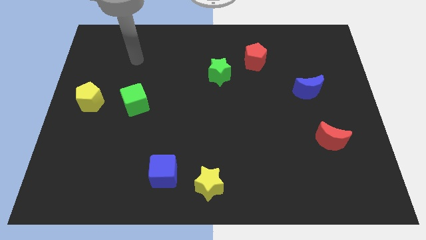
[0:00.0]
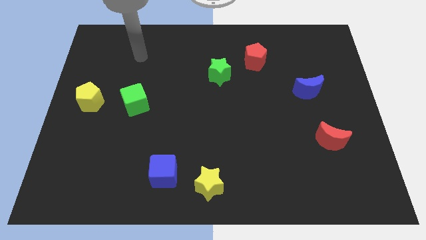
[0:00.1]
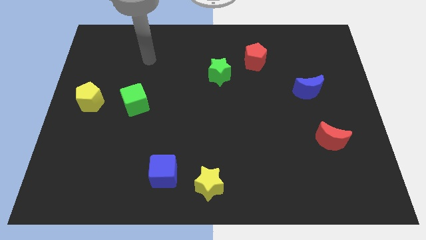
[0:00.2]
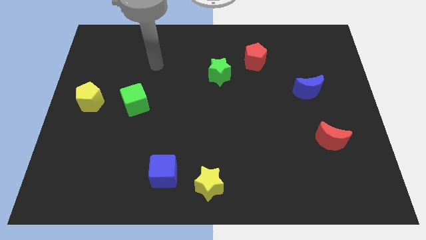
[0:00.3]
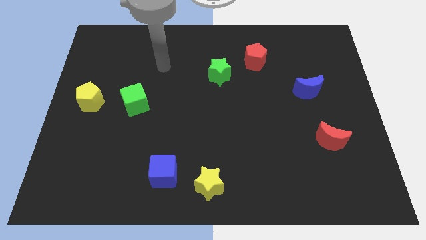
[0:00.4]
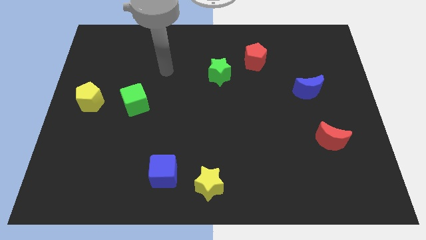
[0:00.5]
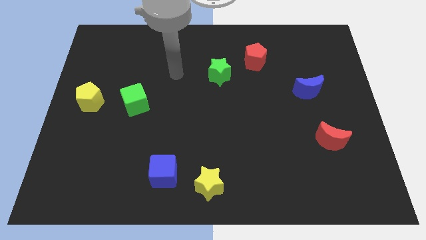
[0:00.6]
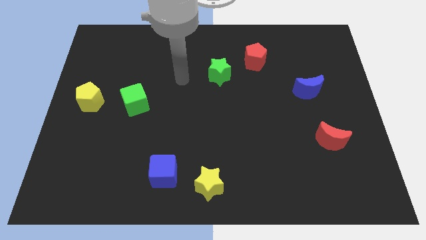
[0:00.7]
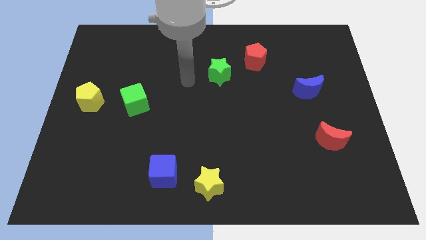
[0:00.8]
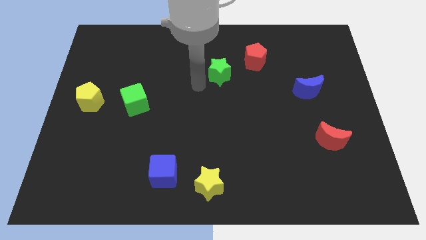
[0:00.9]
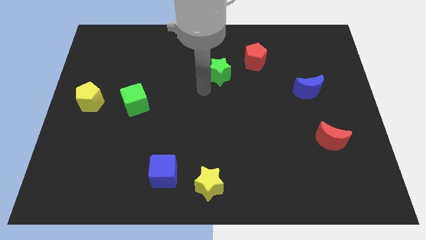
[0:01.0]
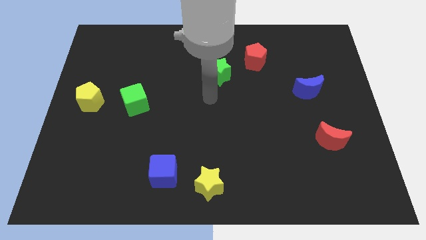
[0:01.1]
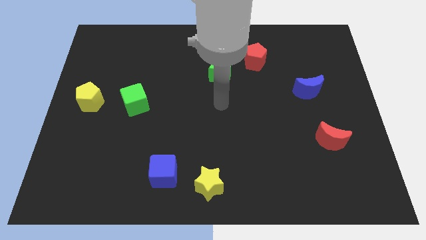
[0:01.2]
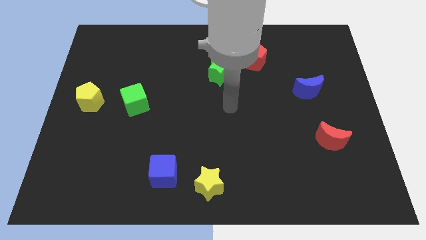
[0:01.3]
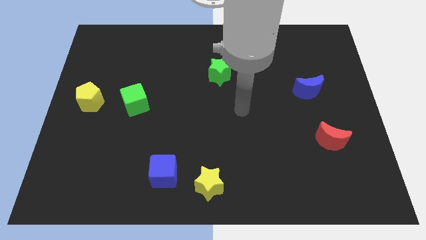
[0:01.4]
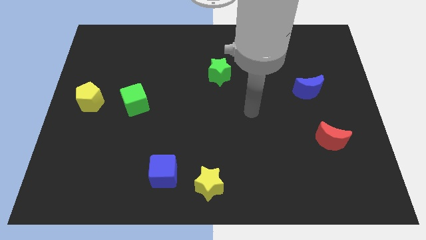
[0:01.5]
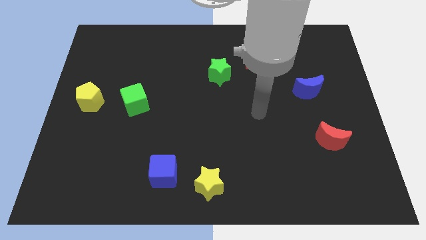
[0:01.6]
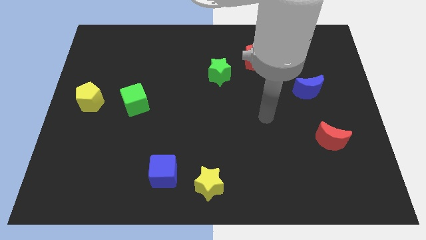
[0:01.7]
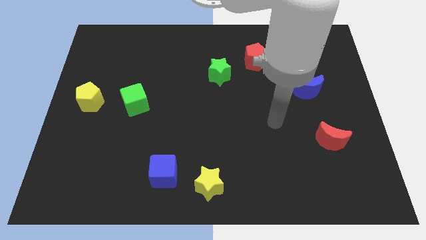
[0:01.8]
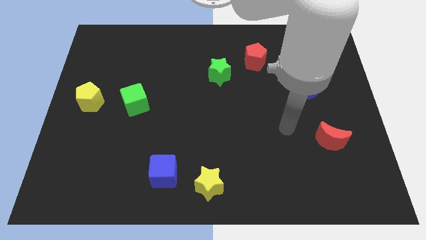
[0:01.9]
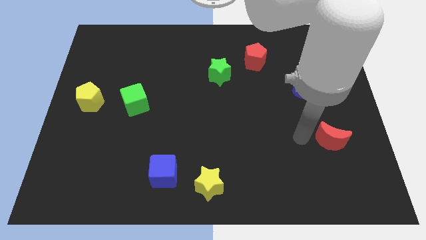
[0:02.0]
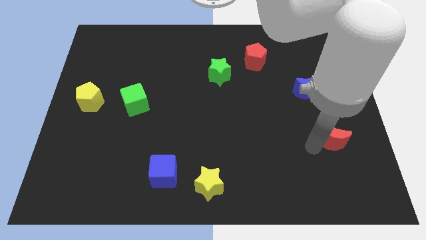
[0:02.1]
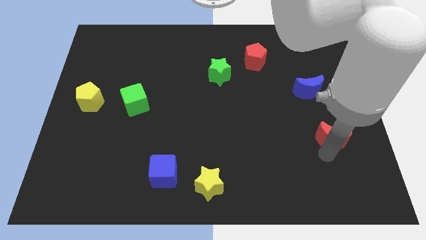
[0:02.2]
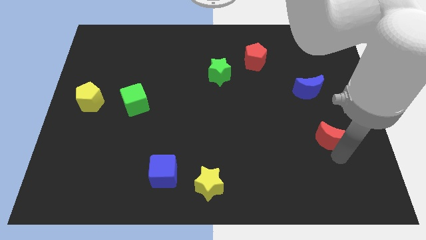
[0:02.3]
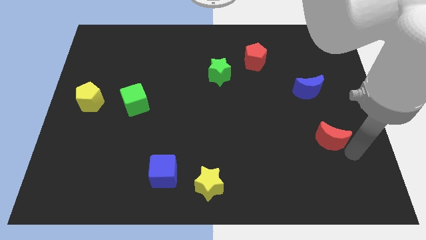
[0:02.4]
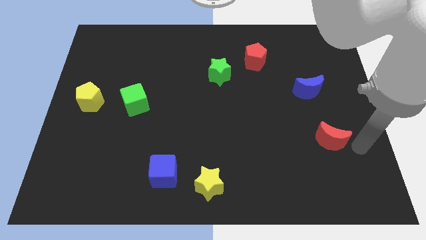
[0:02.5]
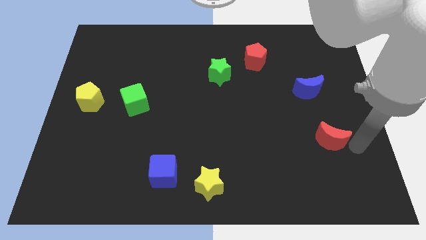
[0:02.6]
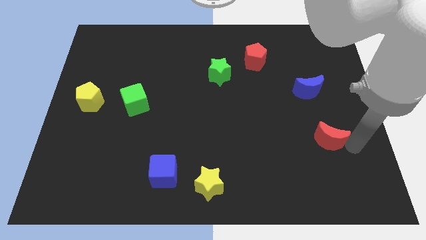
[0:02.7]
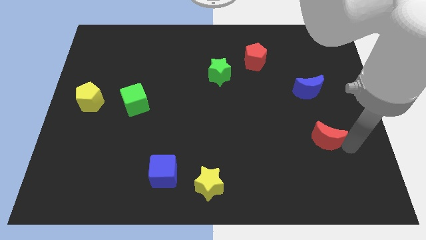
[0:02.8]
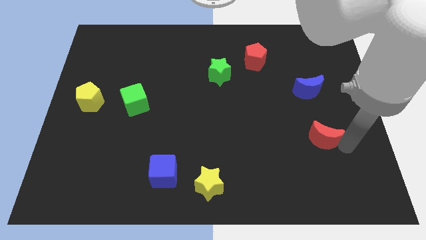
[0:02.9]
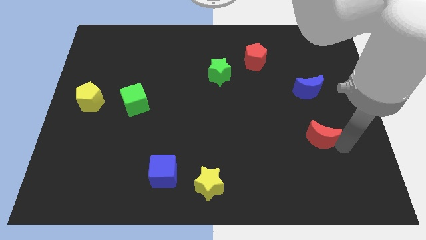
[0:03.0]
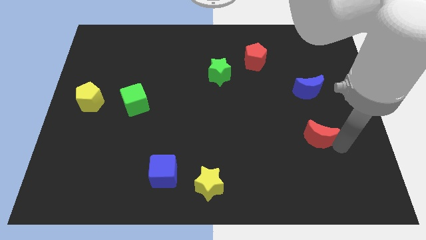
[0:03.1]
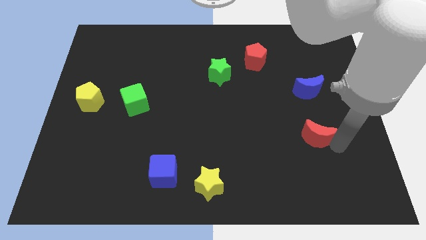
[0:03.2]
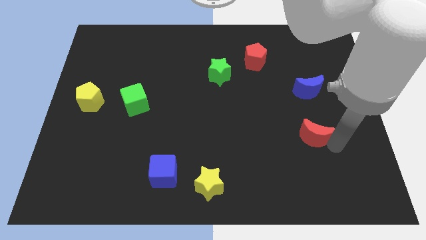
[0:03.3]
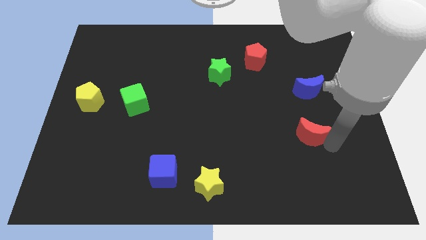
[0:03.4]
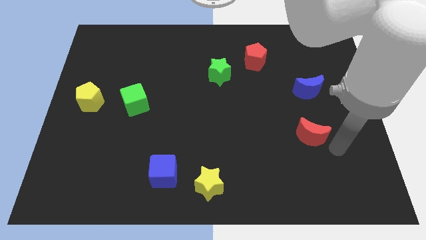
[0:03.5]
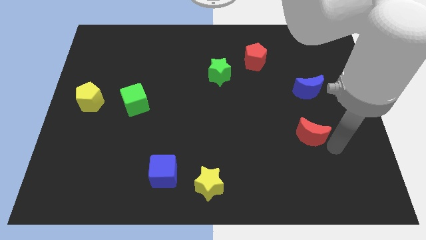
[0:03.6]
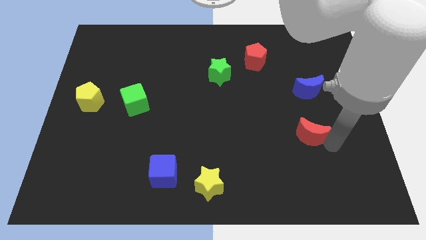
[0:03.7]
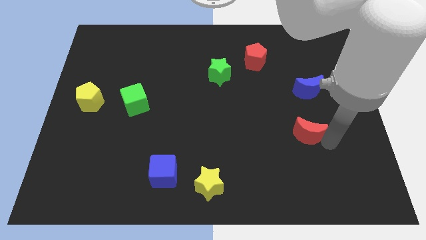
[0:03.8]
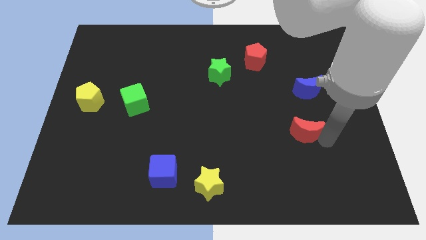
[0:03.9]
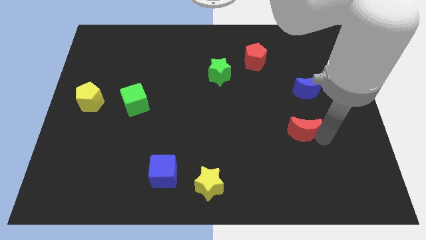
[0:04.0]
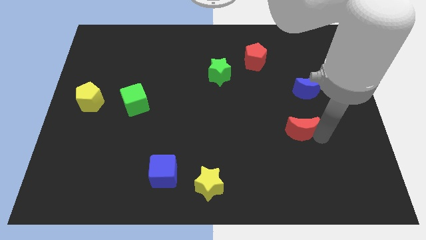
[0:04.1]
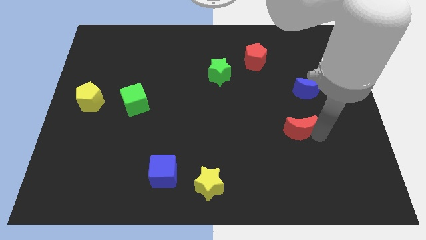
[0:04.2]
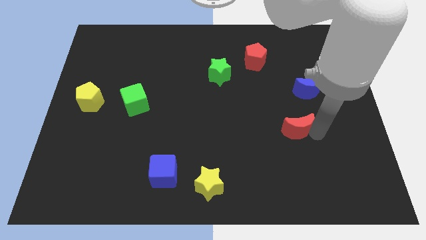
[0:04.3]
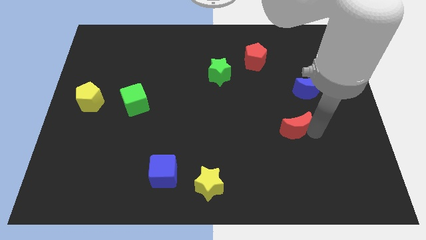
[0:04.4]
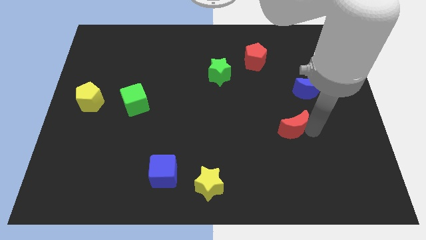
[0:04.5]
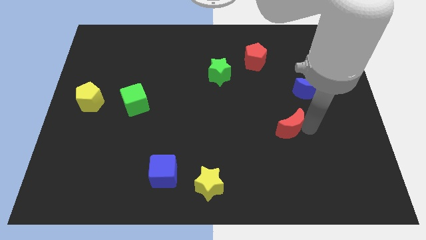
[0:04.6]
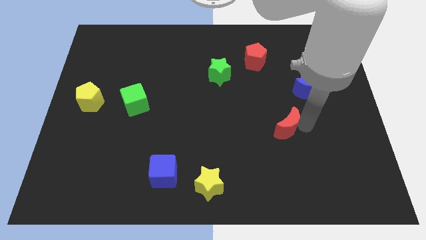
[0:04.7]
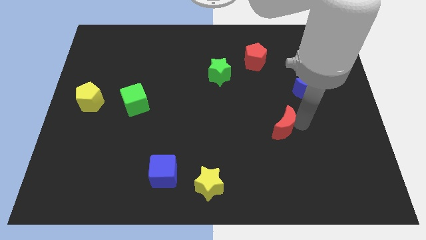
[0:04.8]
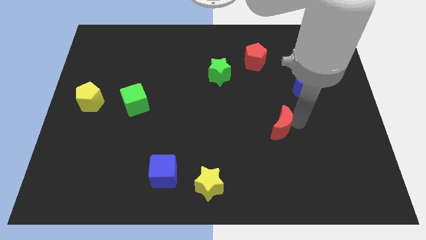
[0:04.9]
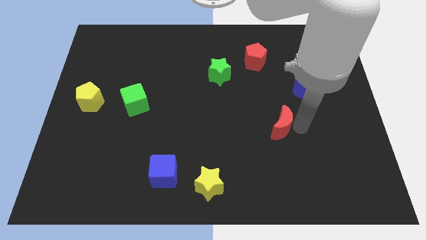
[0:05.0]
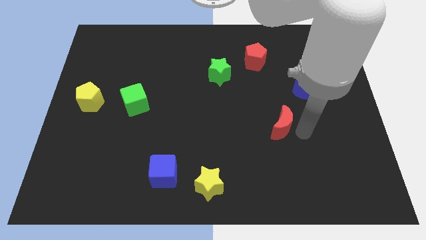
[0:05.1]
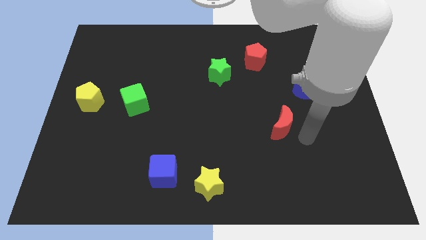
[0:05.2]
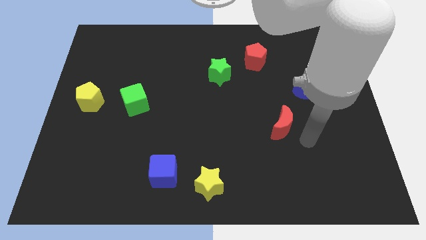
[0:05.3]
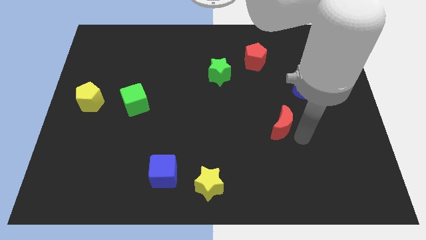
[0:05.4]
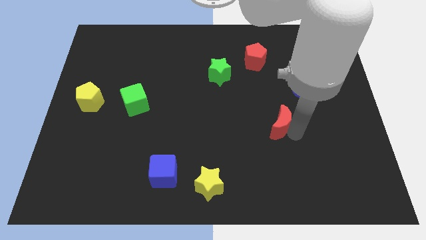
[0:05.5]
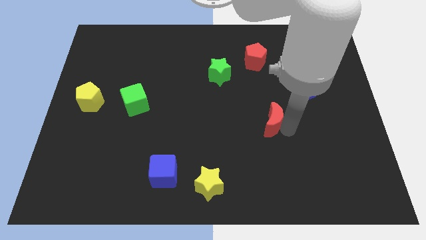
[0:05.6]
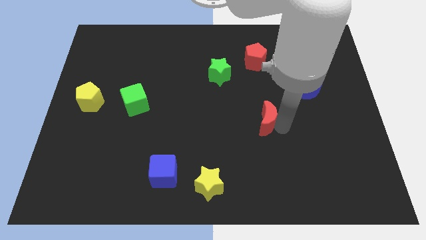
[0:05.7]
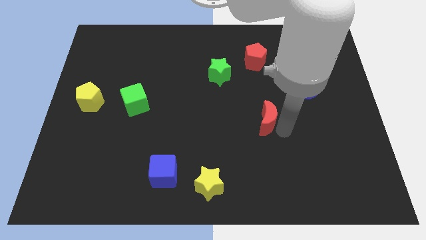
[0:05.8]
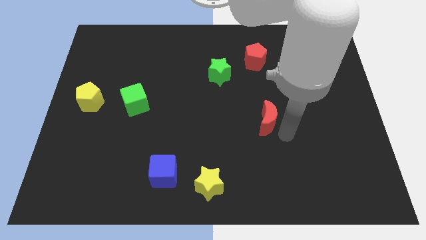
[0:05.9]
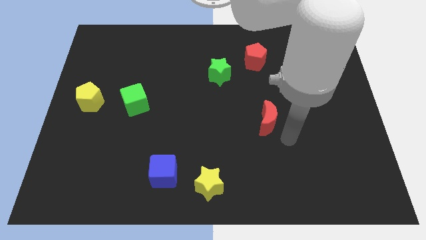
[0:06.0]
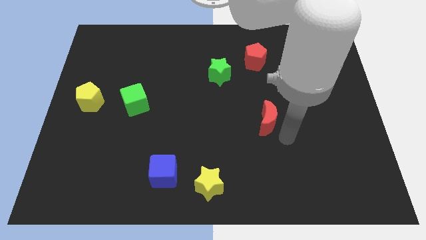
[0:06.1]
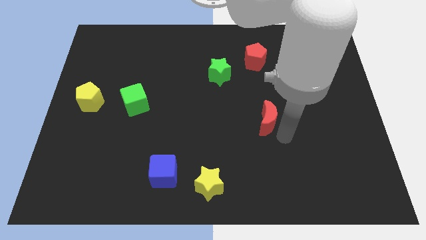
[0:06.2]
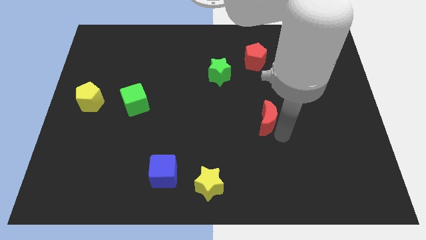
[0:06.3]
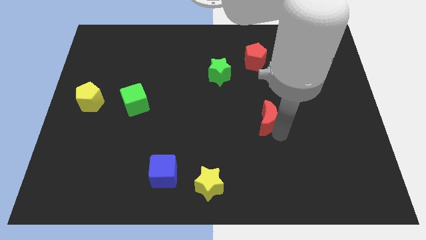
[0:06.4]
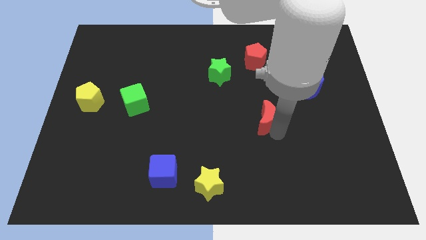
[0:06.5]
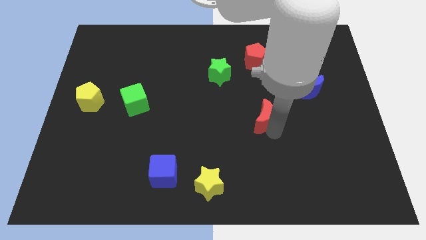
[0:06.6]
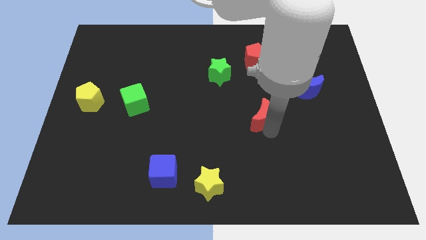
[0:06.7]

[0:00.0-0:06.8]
put the red moon to the middle of the board

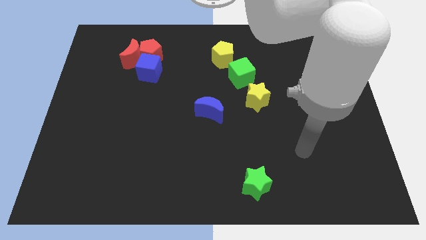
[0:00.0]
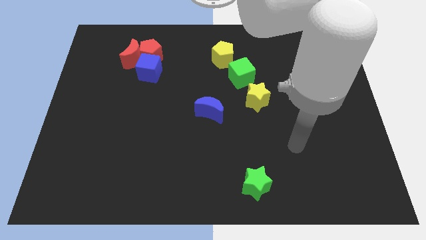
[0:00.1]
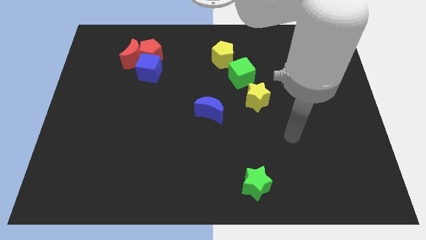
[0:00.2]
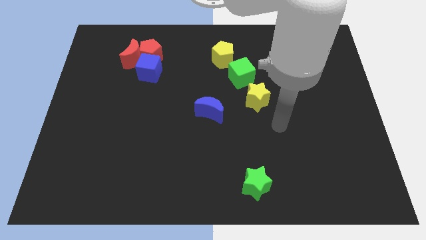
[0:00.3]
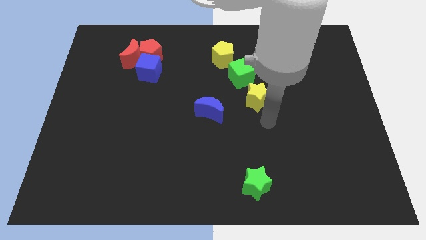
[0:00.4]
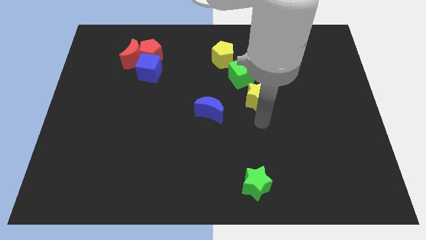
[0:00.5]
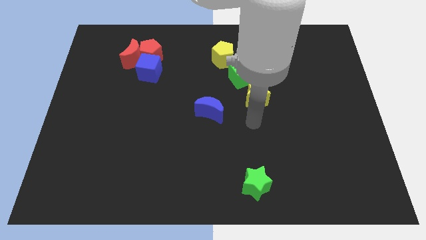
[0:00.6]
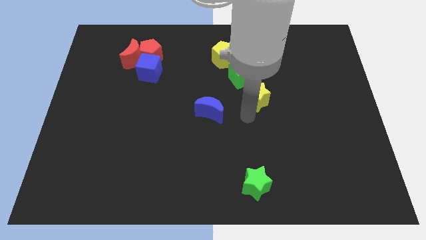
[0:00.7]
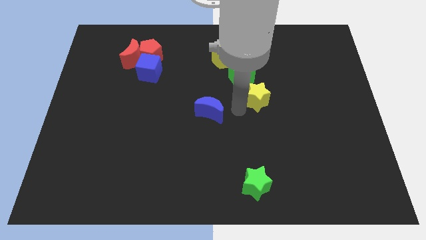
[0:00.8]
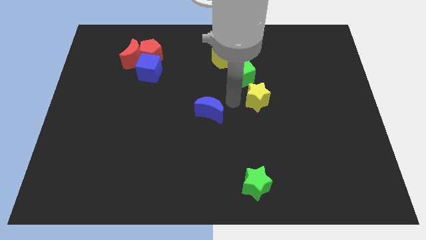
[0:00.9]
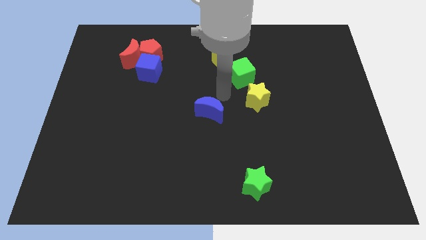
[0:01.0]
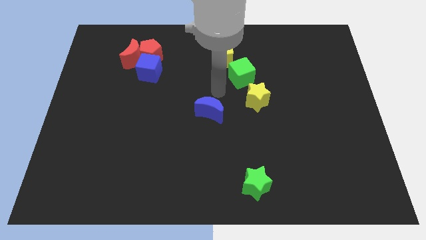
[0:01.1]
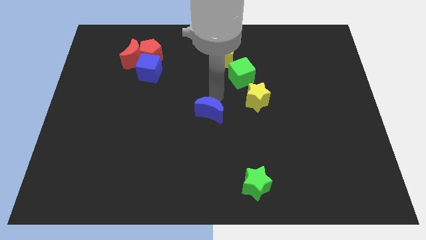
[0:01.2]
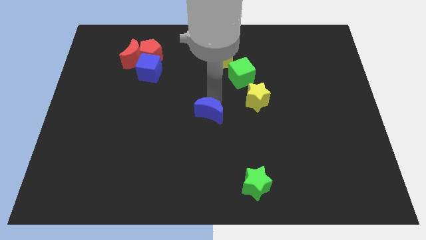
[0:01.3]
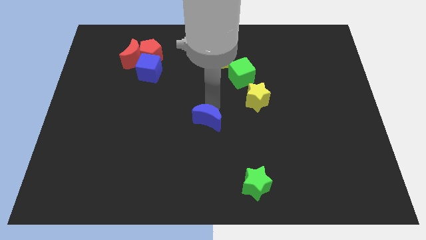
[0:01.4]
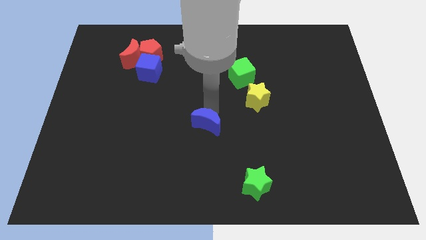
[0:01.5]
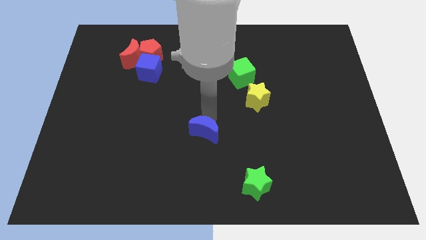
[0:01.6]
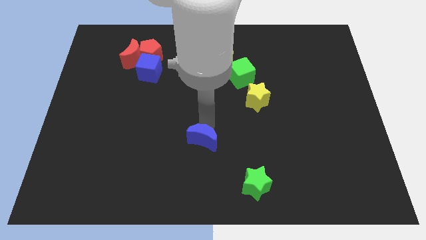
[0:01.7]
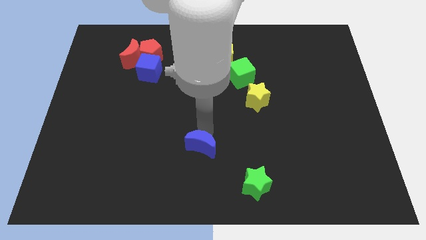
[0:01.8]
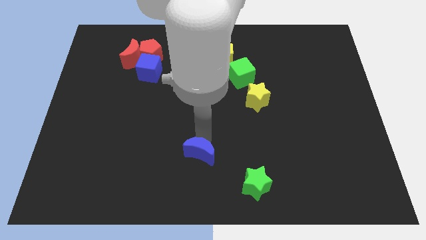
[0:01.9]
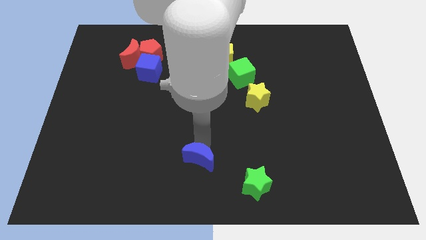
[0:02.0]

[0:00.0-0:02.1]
move the blue moon to the bottom
